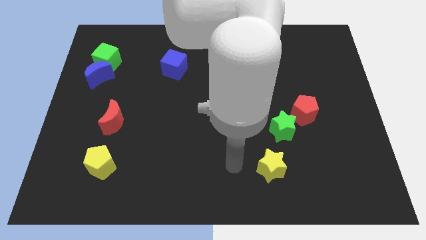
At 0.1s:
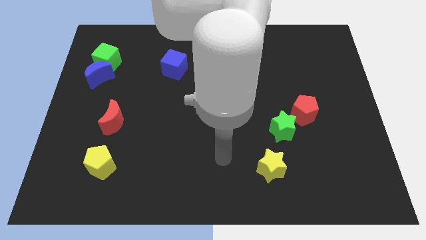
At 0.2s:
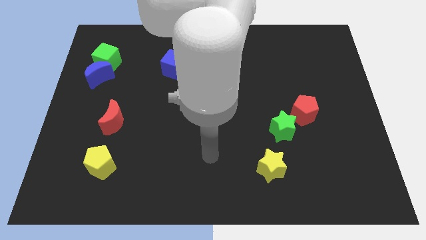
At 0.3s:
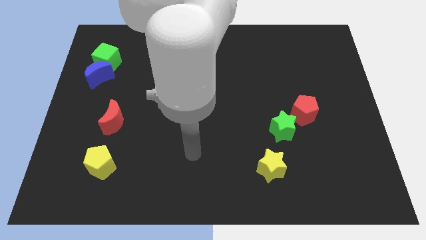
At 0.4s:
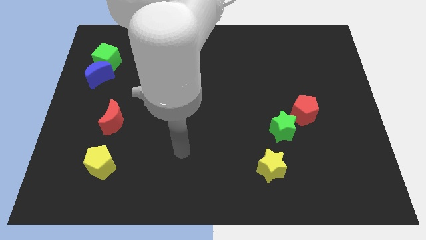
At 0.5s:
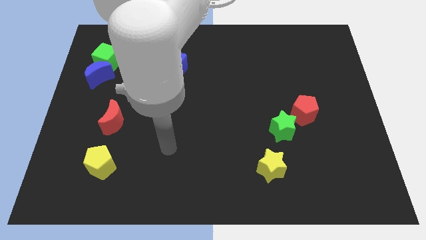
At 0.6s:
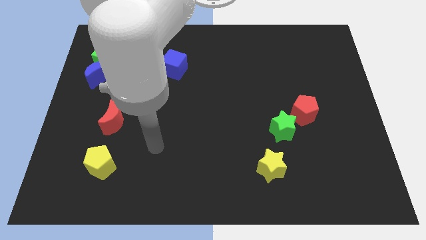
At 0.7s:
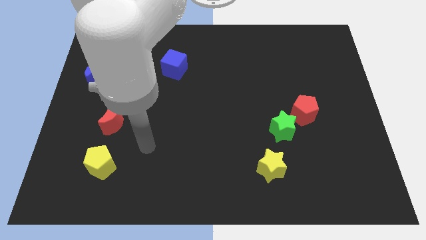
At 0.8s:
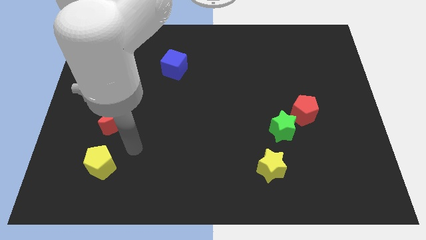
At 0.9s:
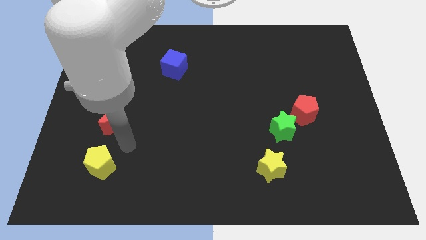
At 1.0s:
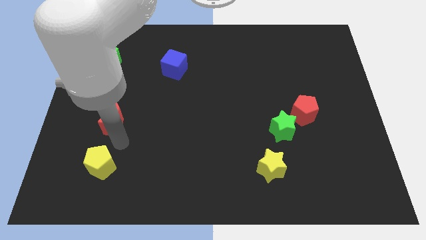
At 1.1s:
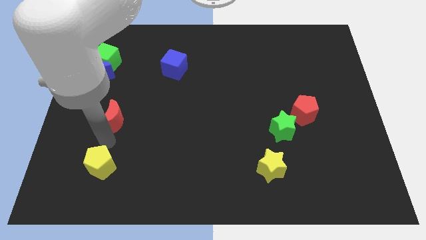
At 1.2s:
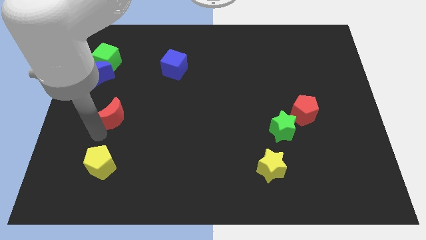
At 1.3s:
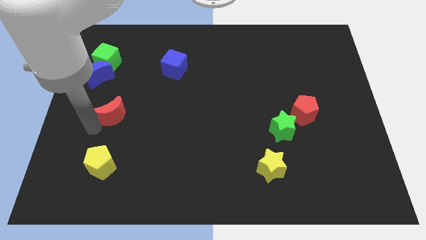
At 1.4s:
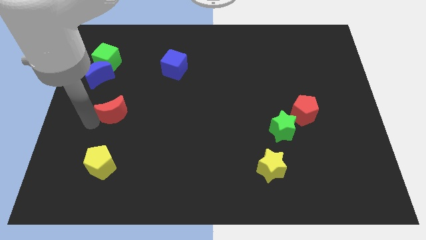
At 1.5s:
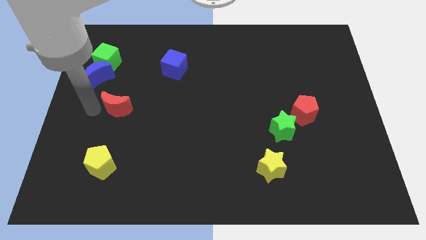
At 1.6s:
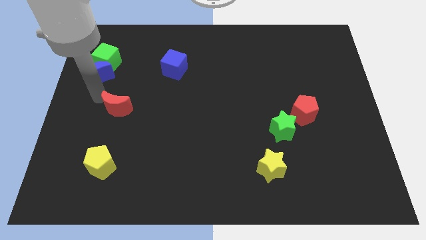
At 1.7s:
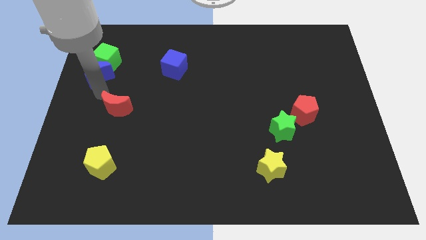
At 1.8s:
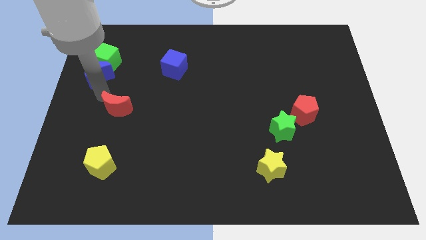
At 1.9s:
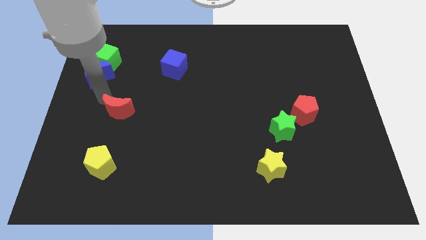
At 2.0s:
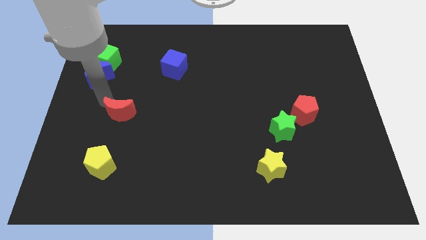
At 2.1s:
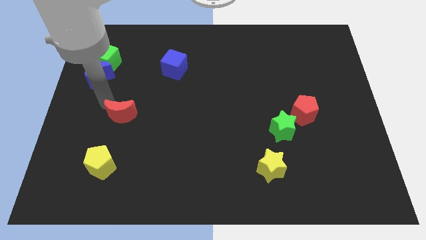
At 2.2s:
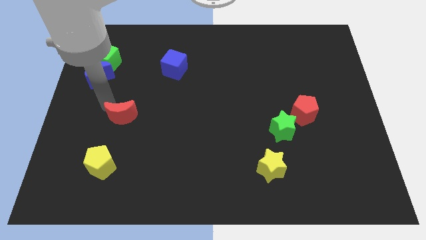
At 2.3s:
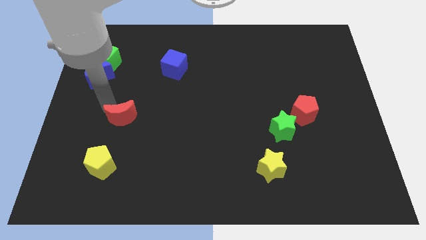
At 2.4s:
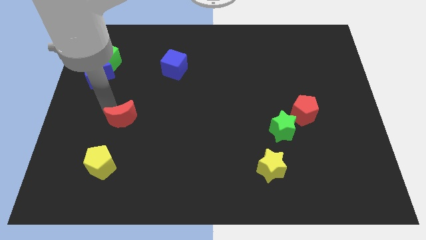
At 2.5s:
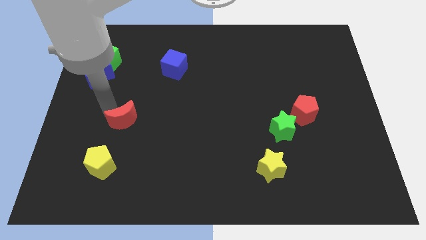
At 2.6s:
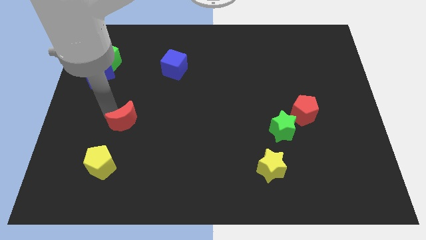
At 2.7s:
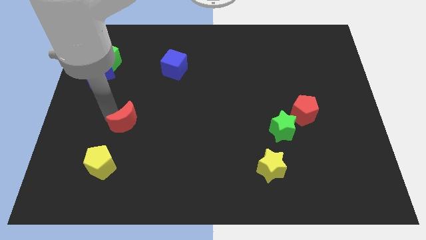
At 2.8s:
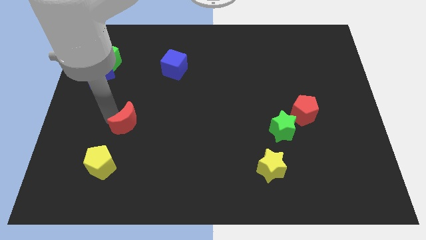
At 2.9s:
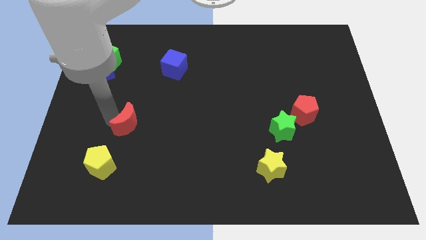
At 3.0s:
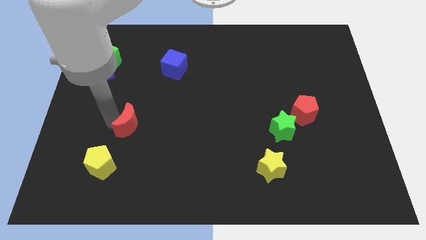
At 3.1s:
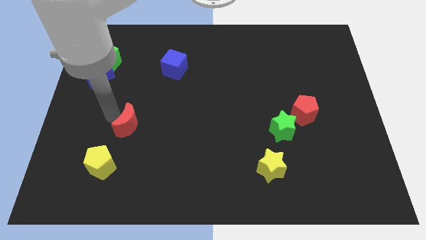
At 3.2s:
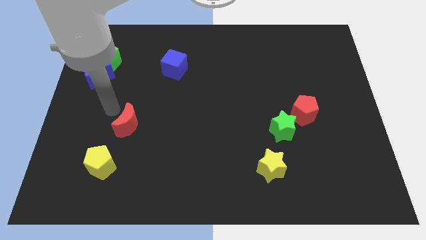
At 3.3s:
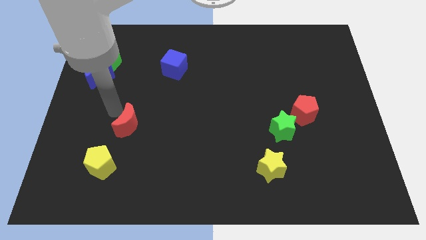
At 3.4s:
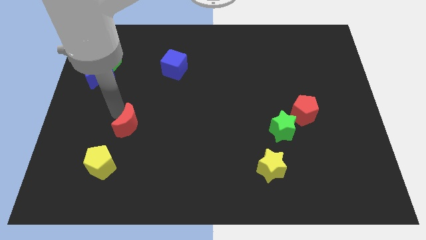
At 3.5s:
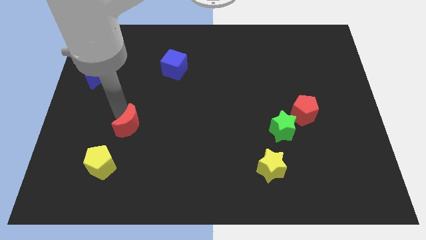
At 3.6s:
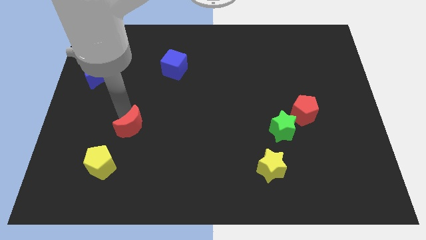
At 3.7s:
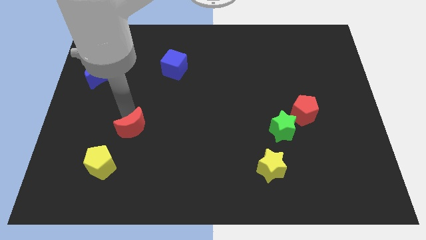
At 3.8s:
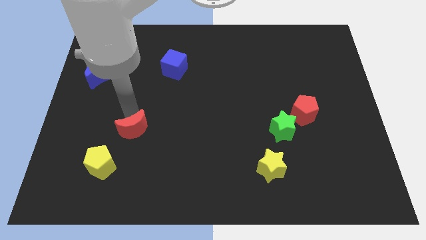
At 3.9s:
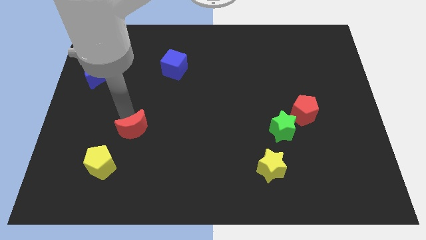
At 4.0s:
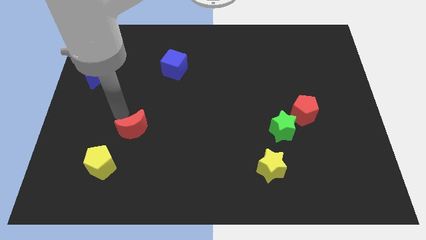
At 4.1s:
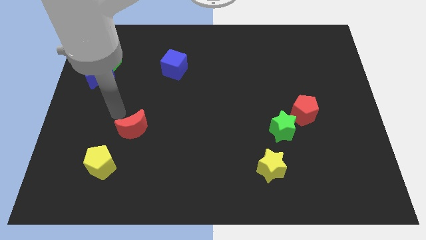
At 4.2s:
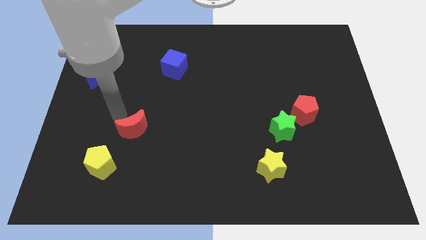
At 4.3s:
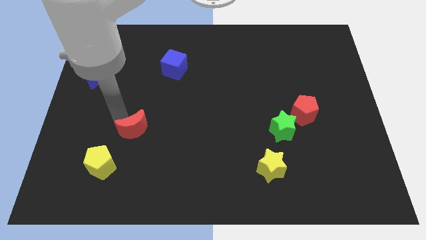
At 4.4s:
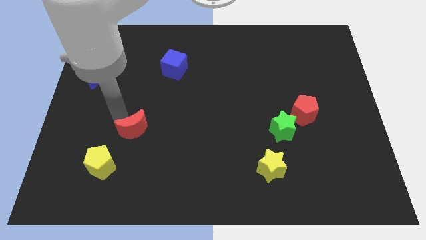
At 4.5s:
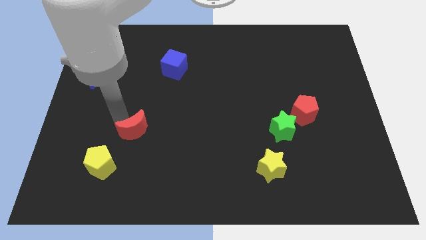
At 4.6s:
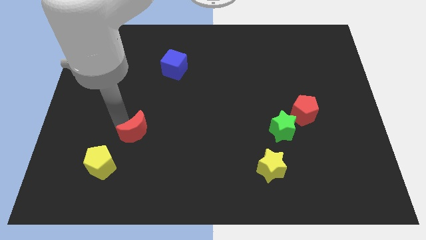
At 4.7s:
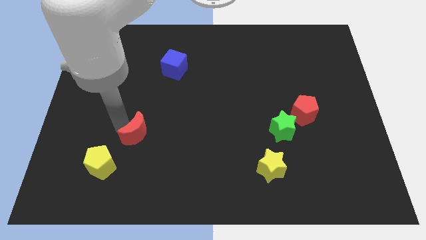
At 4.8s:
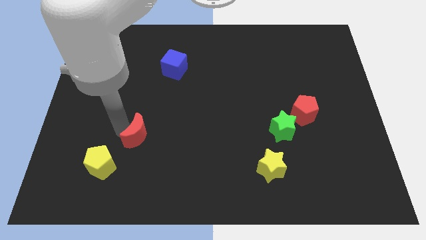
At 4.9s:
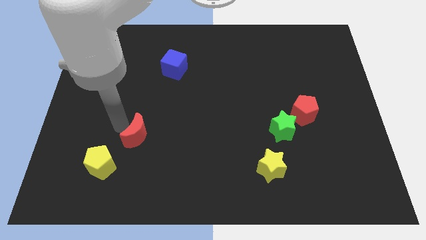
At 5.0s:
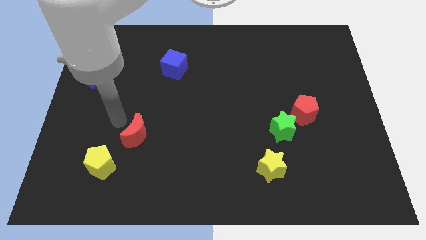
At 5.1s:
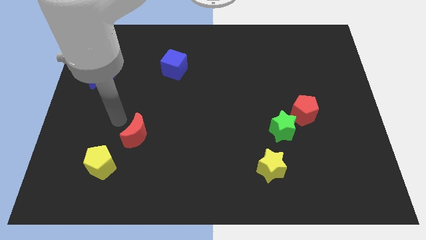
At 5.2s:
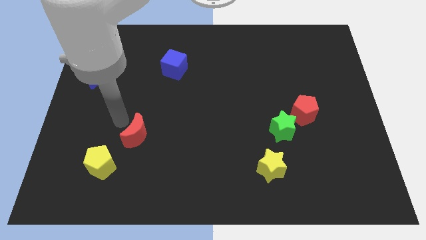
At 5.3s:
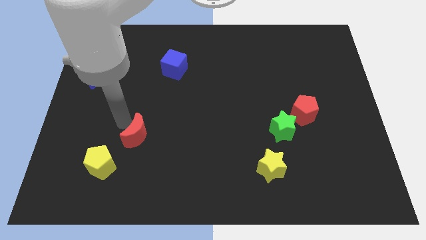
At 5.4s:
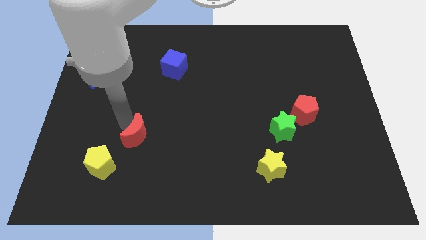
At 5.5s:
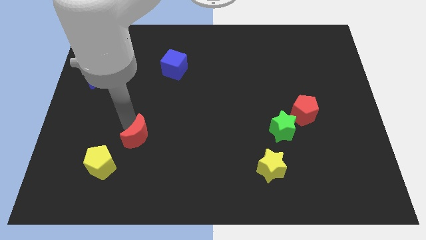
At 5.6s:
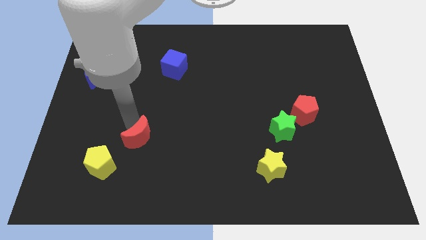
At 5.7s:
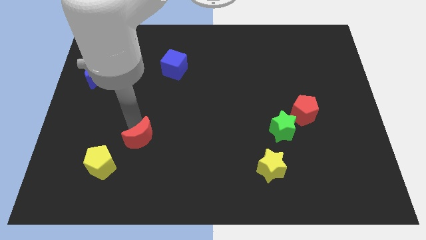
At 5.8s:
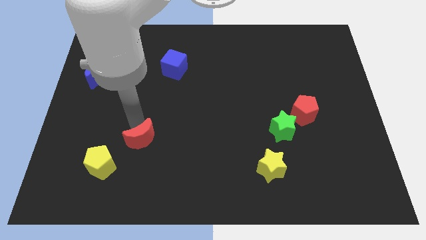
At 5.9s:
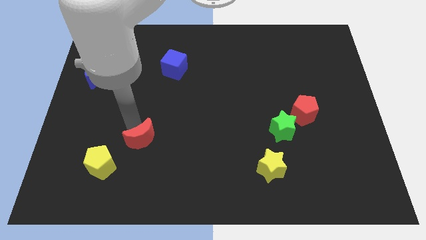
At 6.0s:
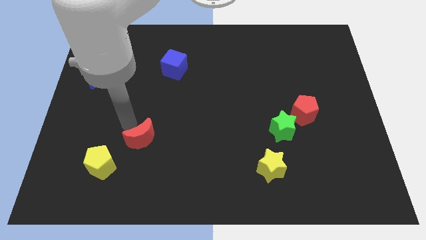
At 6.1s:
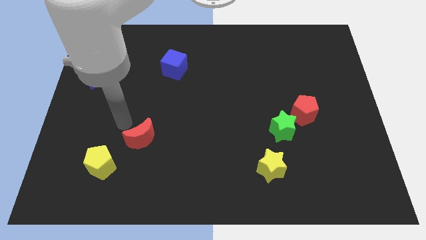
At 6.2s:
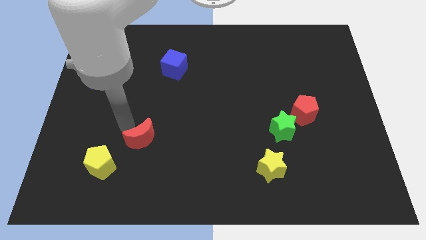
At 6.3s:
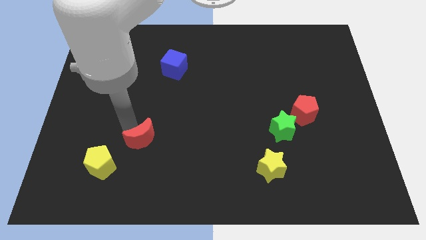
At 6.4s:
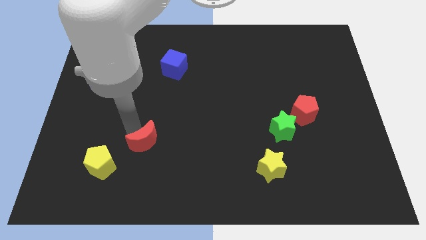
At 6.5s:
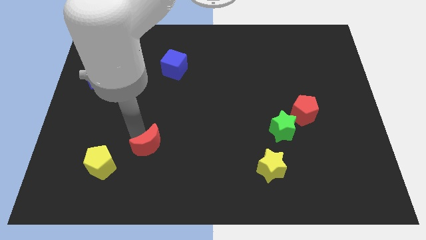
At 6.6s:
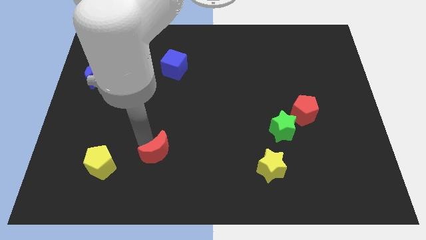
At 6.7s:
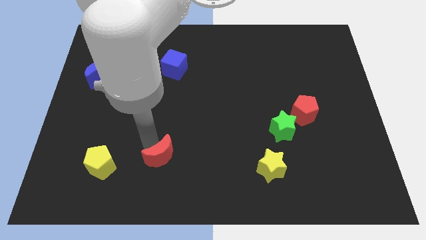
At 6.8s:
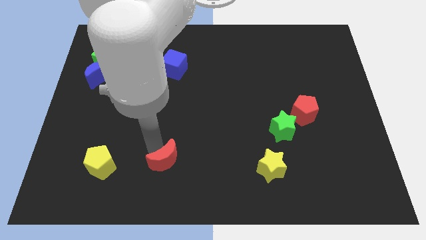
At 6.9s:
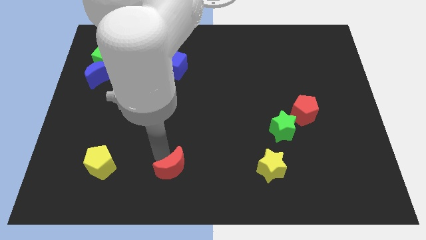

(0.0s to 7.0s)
slide the red moon to the bottom side
